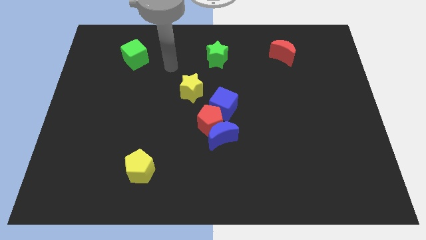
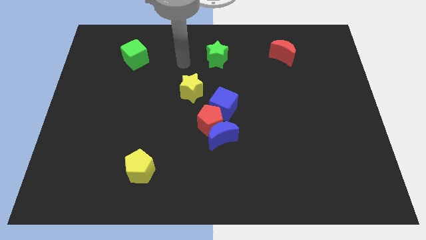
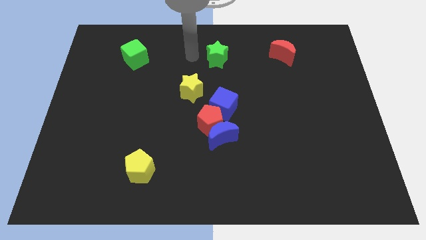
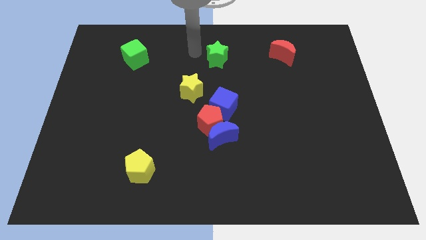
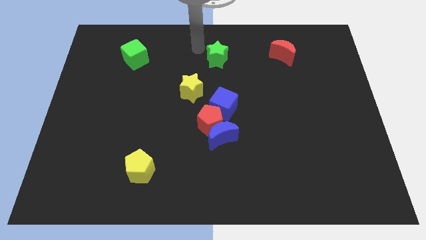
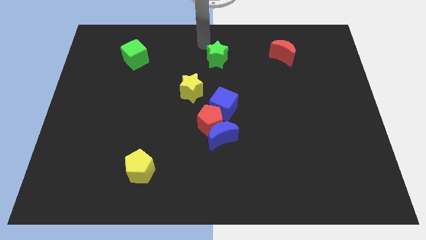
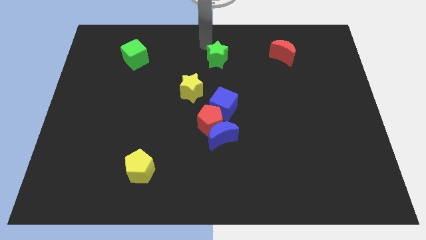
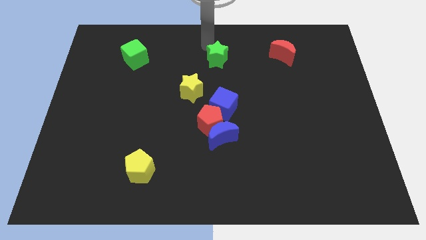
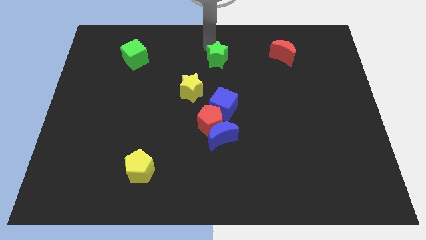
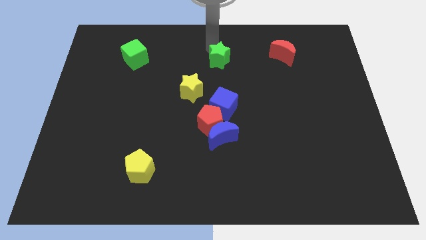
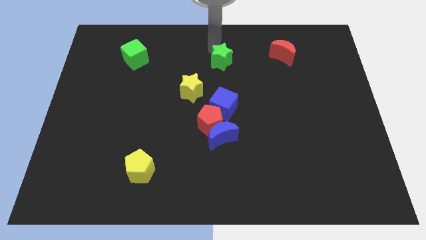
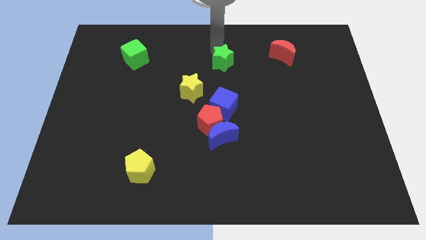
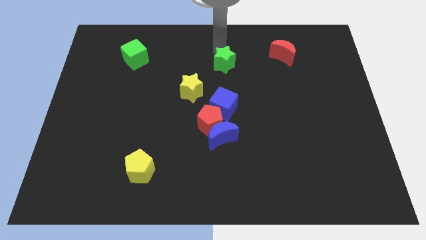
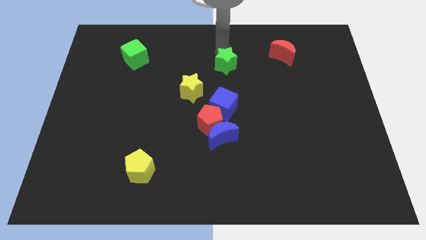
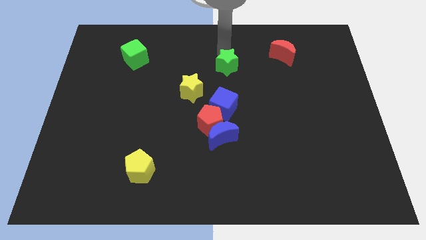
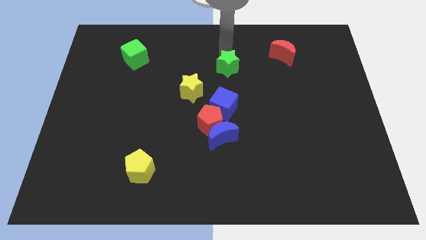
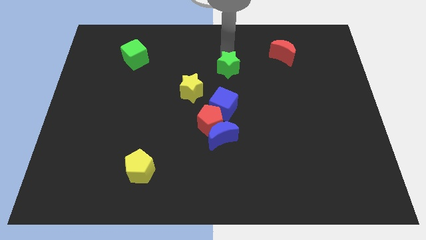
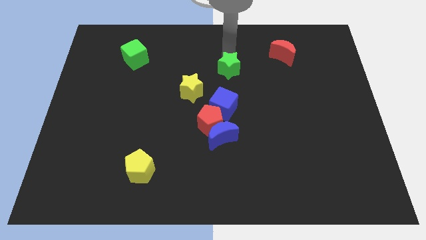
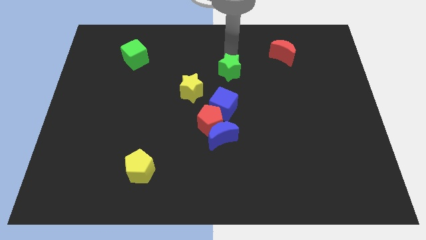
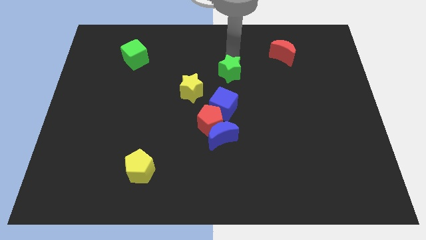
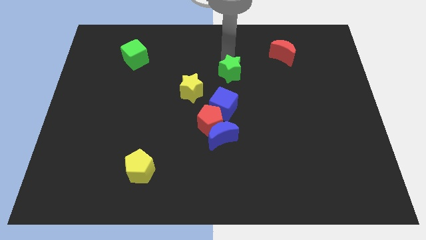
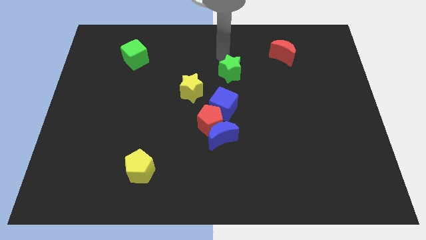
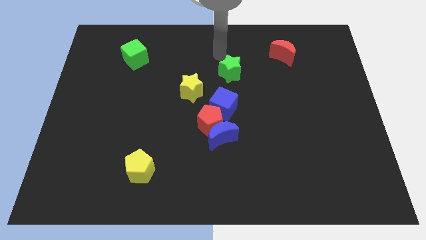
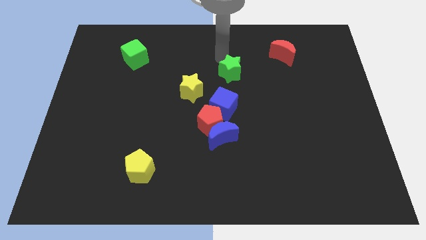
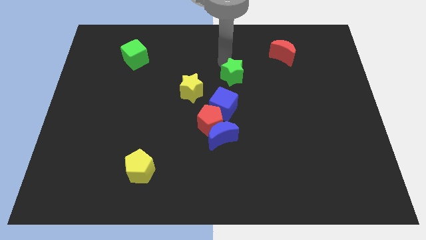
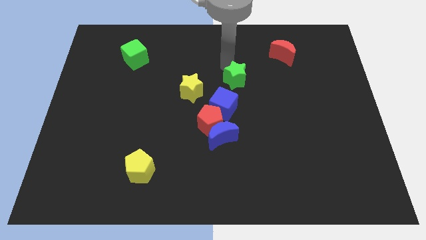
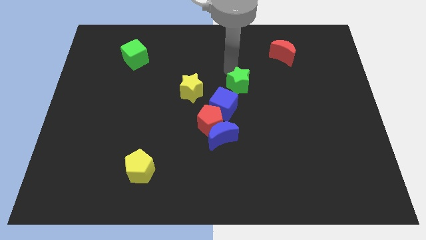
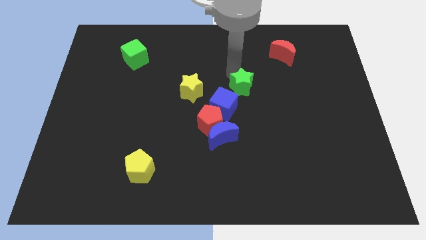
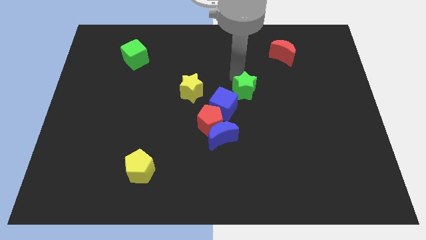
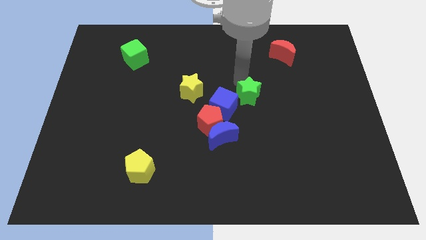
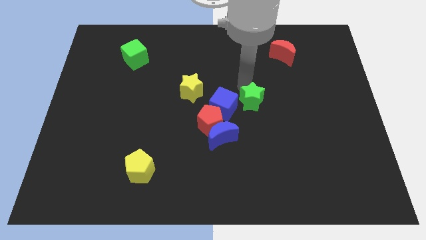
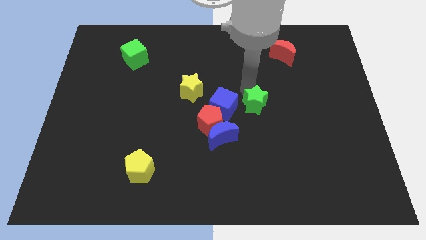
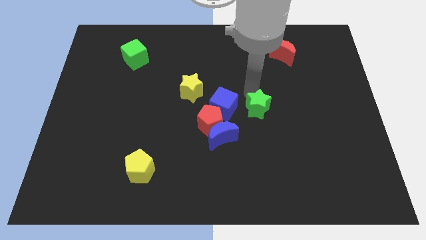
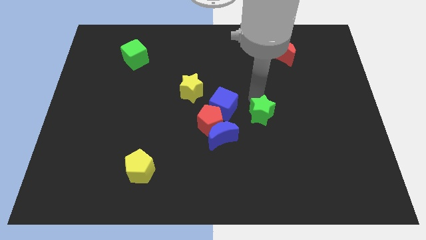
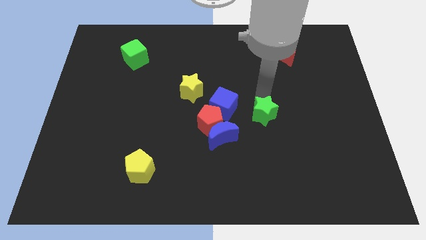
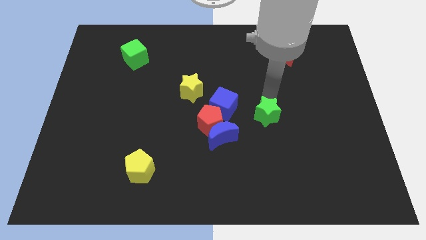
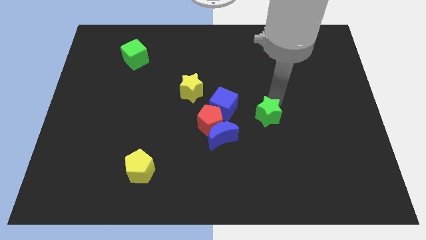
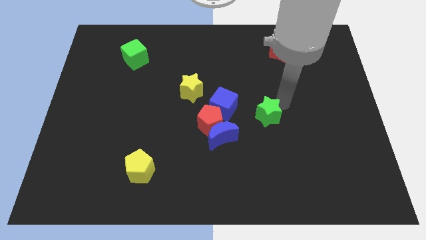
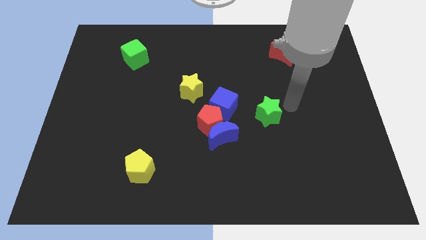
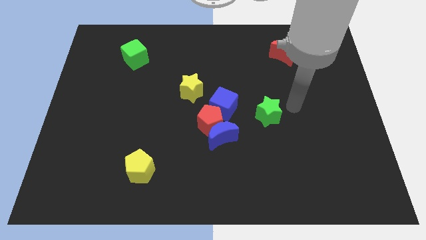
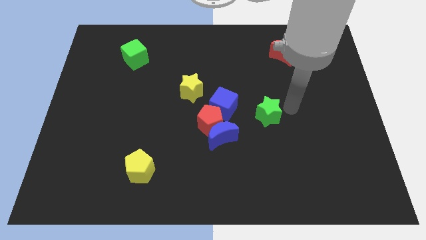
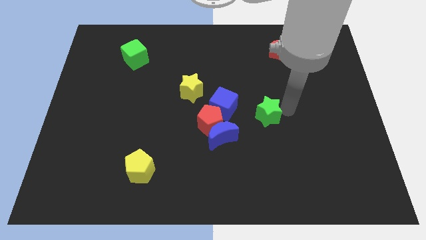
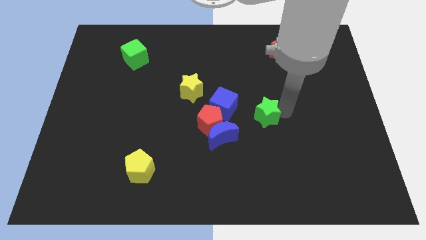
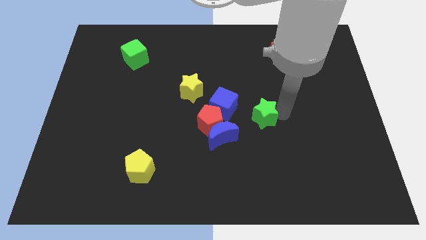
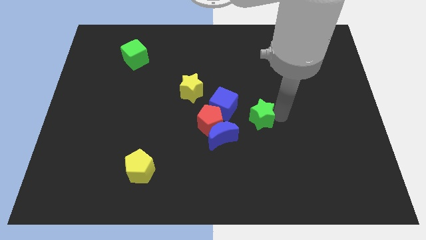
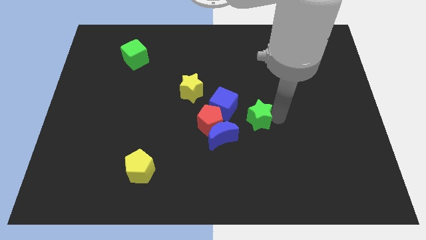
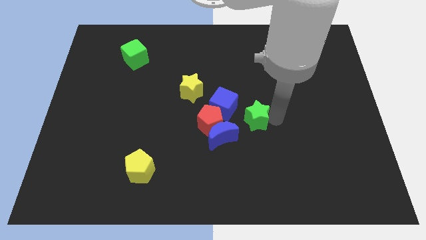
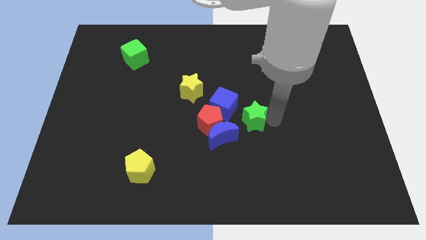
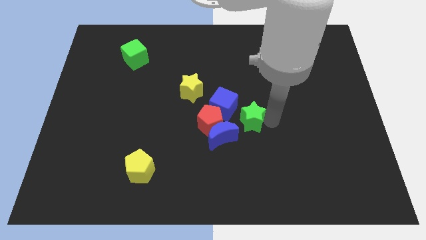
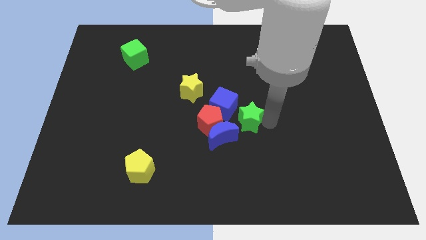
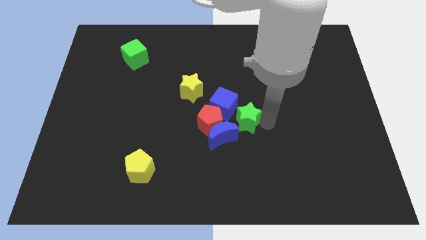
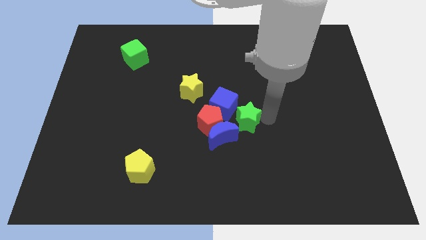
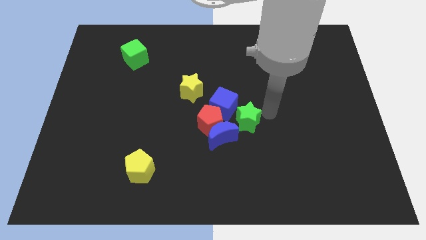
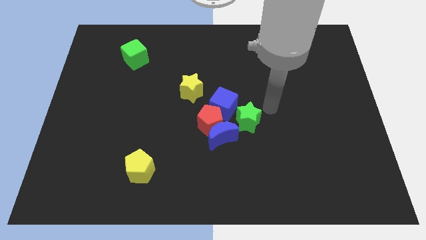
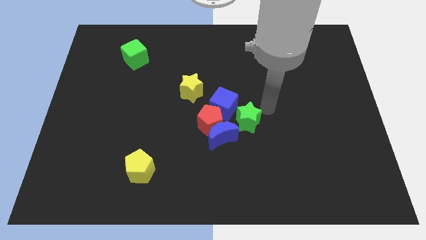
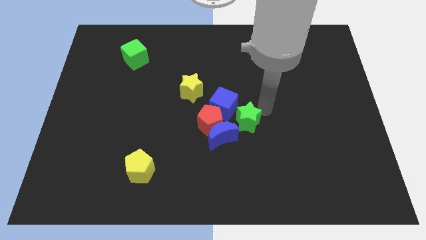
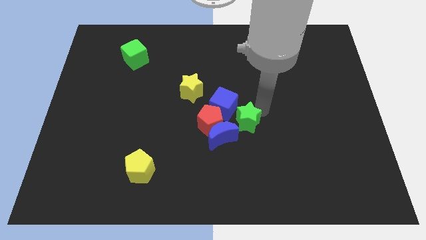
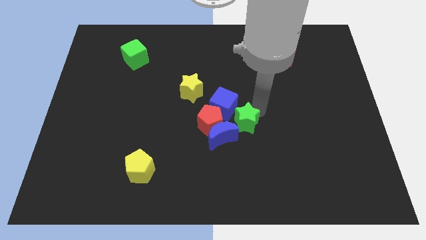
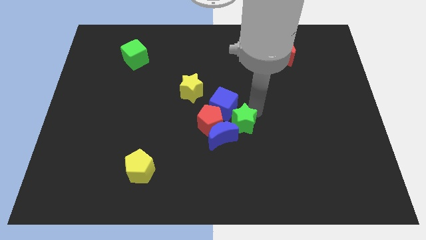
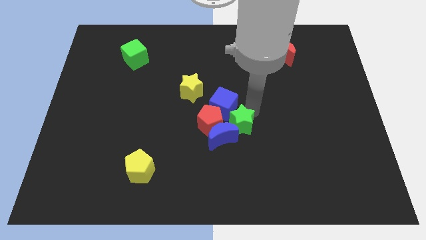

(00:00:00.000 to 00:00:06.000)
slide the green star next to the blue moon

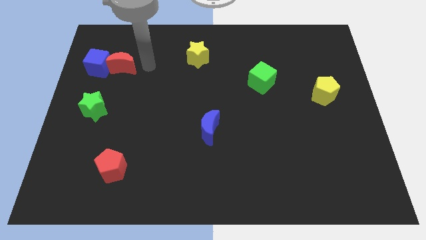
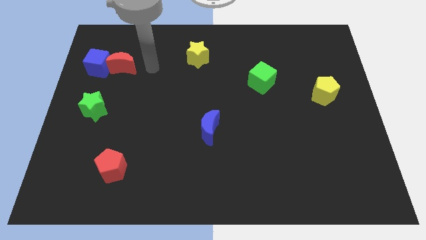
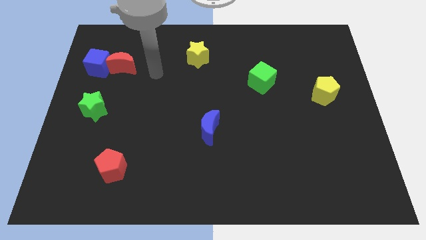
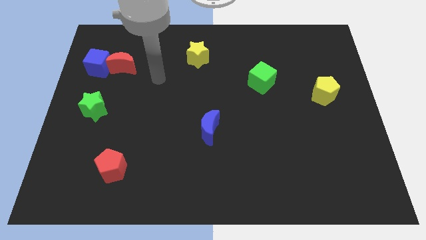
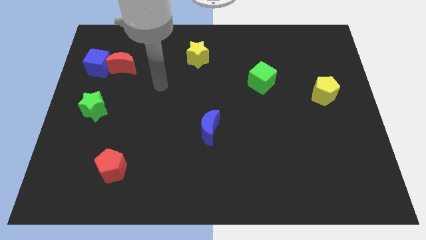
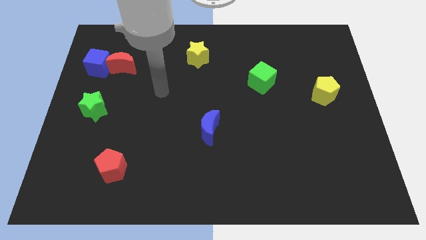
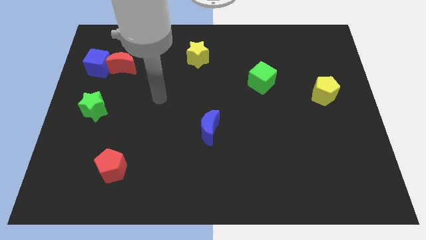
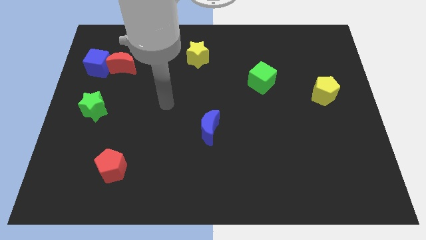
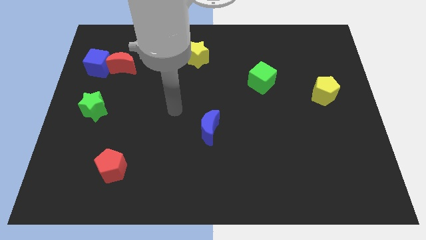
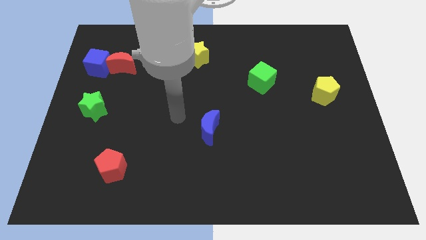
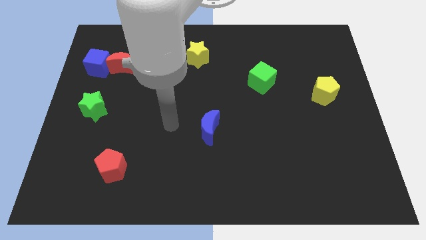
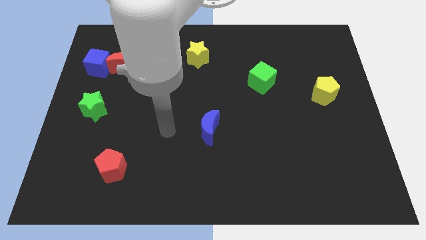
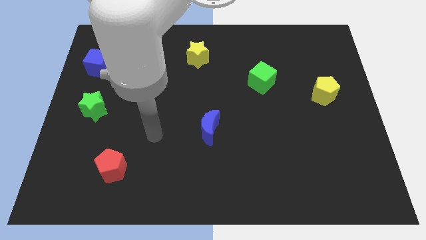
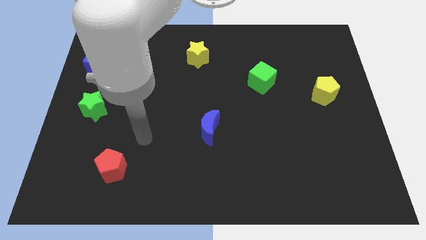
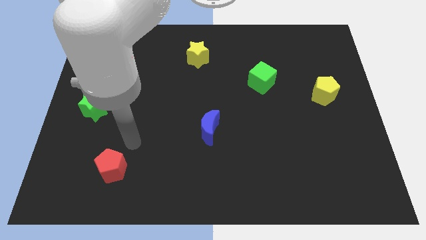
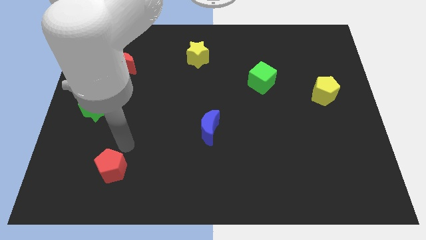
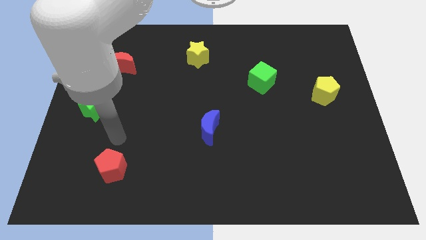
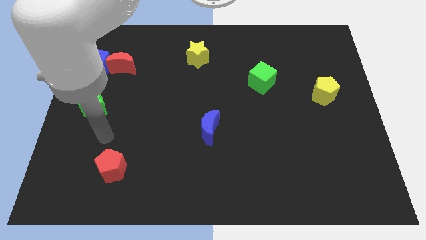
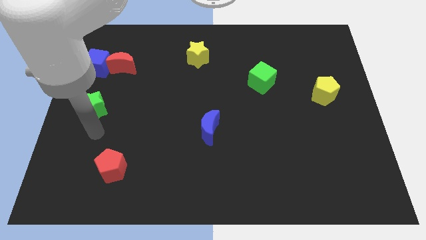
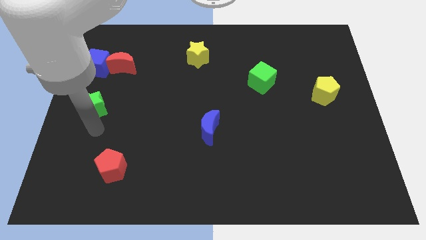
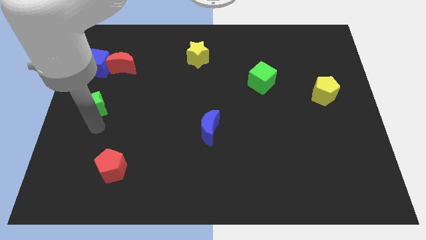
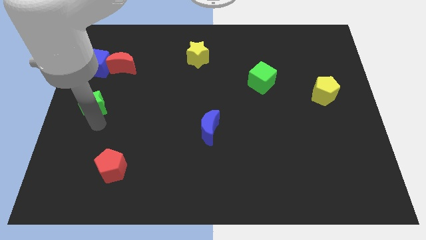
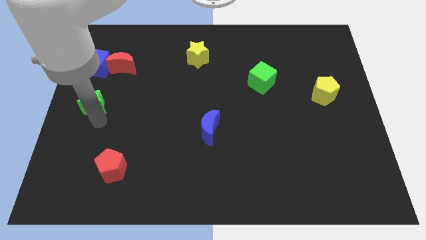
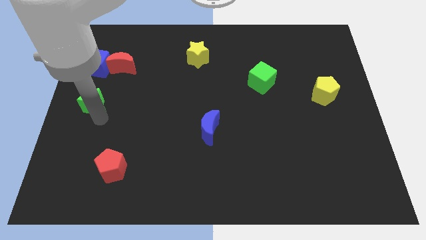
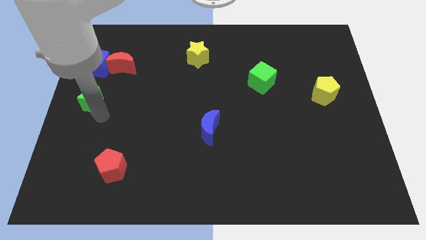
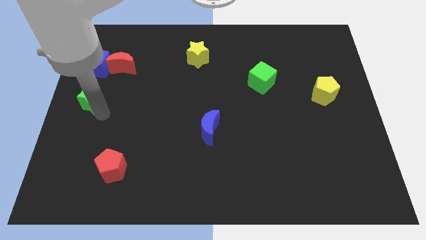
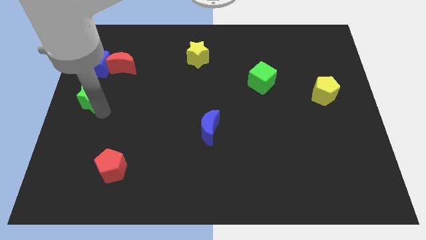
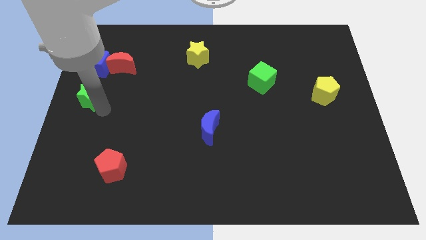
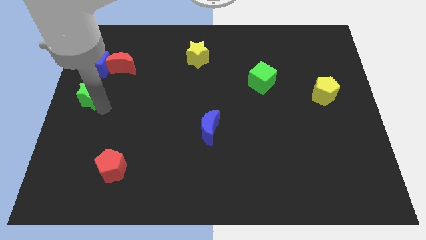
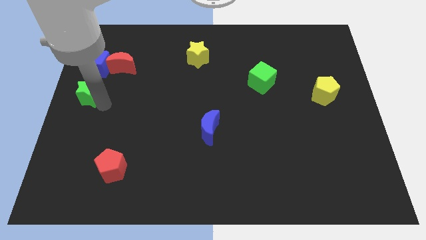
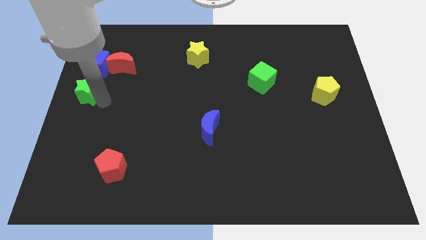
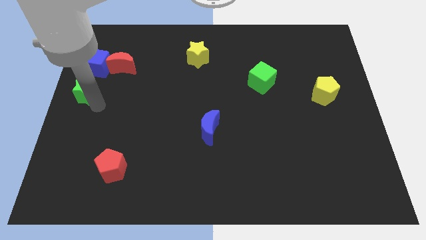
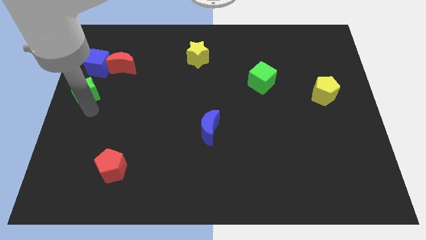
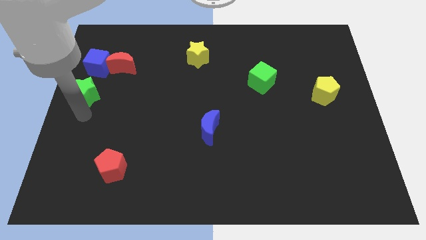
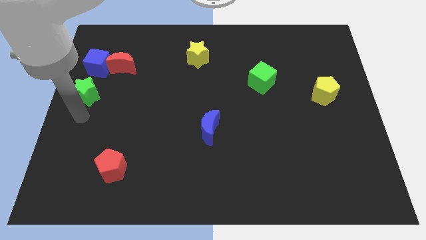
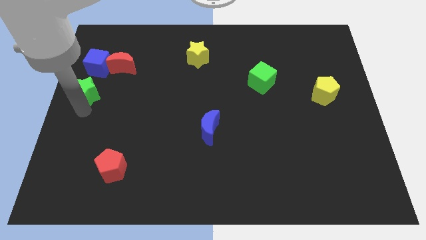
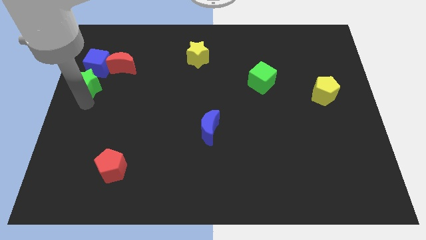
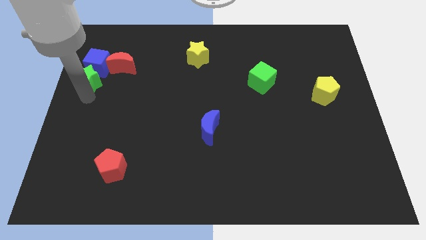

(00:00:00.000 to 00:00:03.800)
slide the green star close to the blue cube
